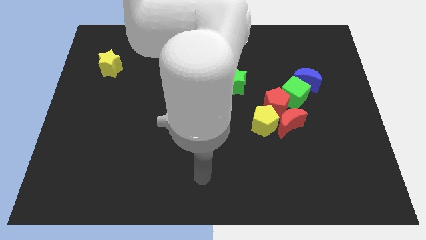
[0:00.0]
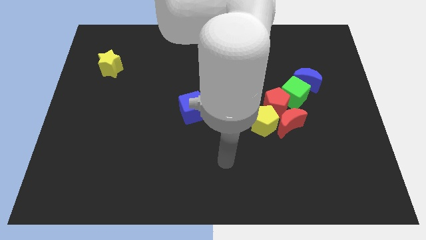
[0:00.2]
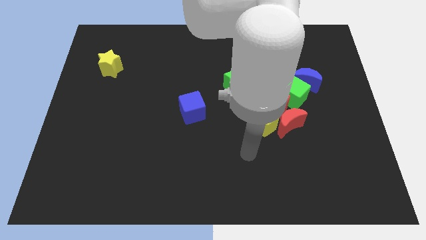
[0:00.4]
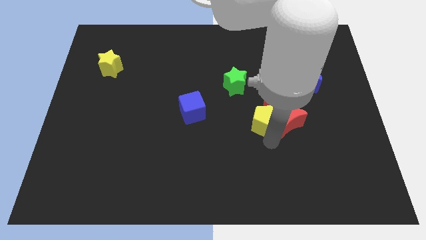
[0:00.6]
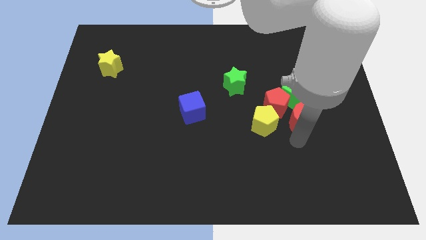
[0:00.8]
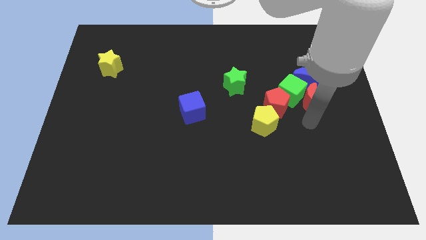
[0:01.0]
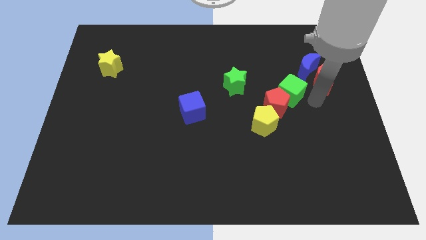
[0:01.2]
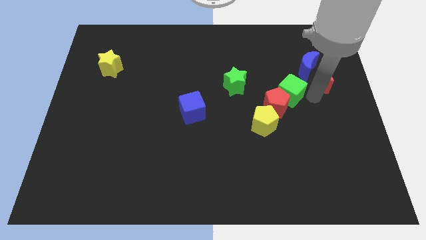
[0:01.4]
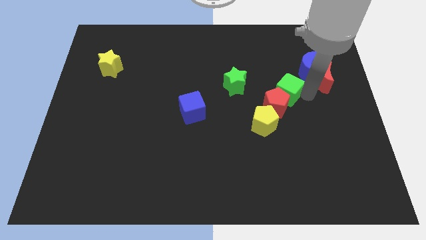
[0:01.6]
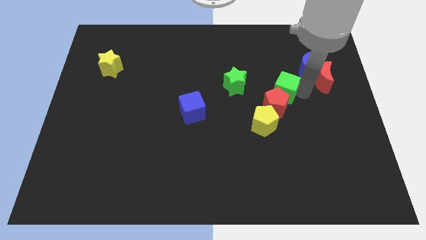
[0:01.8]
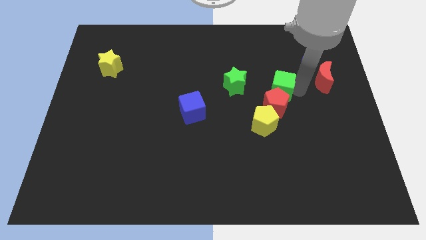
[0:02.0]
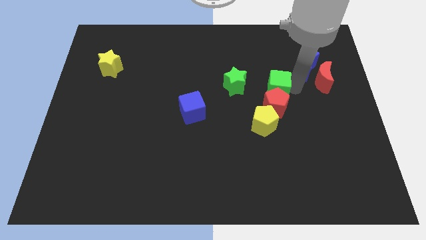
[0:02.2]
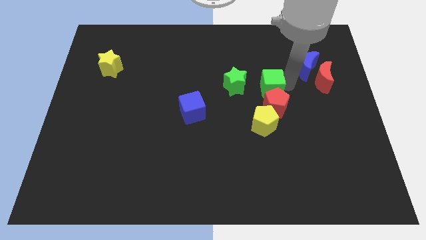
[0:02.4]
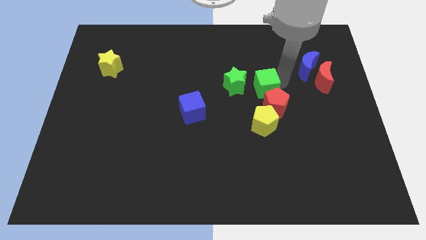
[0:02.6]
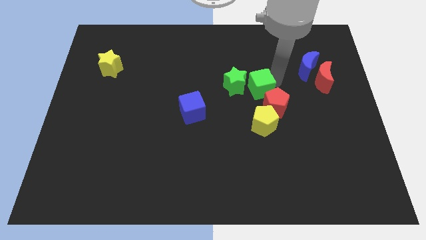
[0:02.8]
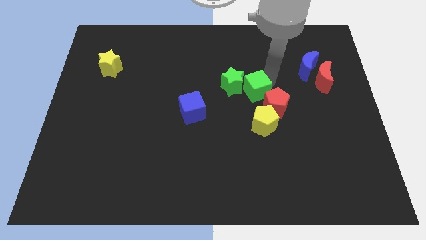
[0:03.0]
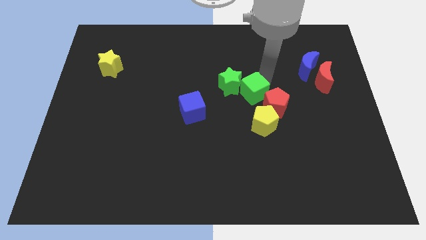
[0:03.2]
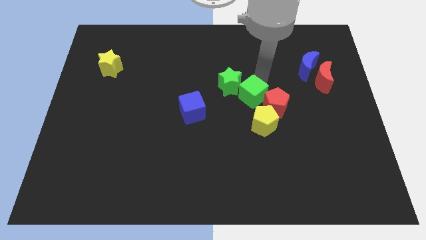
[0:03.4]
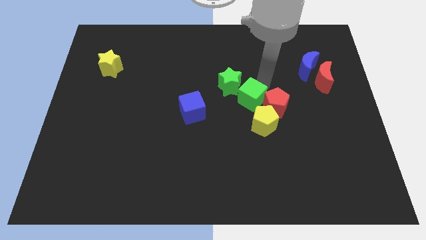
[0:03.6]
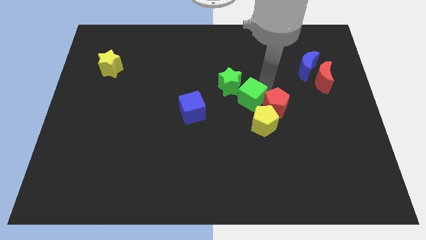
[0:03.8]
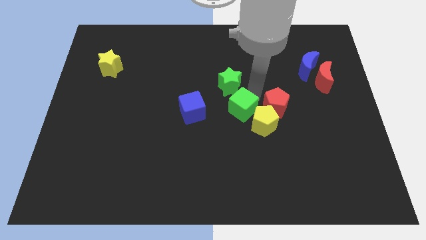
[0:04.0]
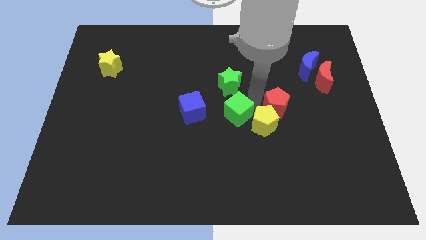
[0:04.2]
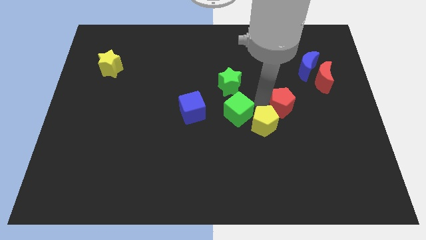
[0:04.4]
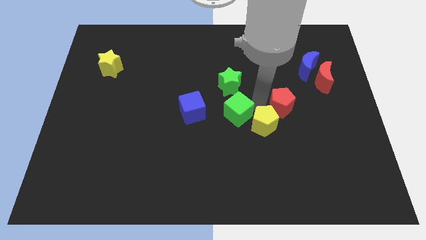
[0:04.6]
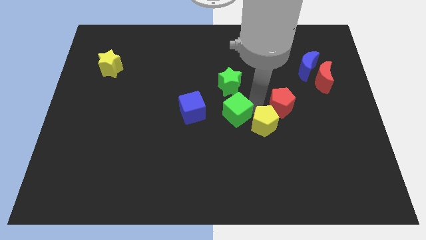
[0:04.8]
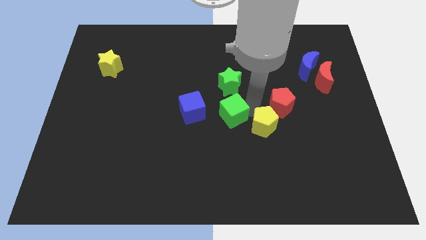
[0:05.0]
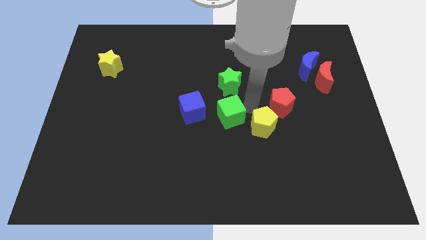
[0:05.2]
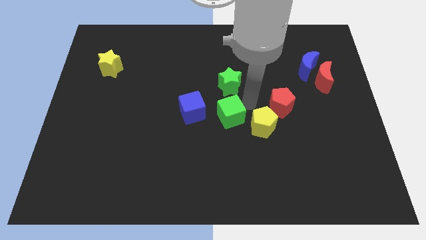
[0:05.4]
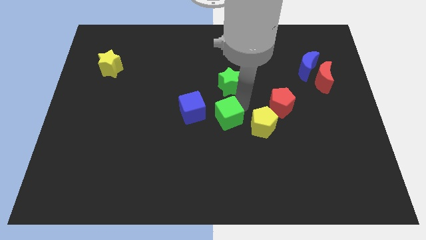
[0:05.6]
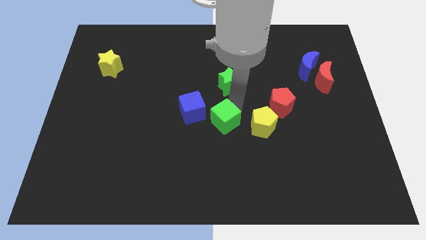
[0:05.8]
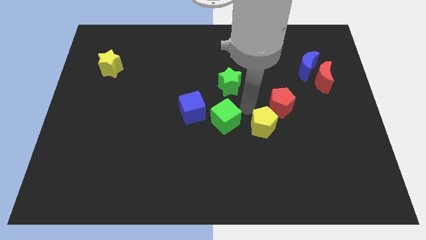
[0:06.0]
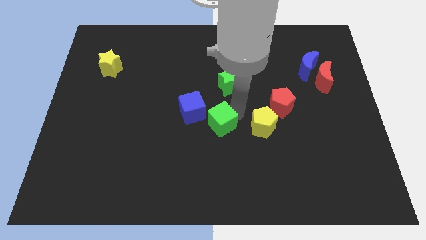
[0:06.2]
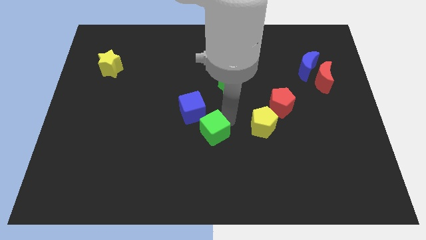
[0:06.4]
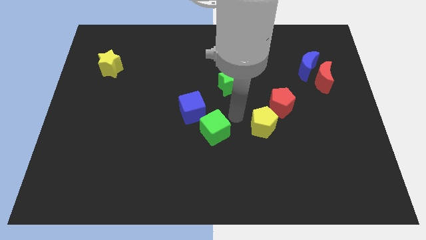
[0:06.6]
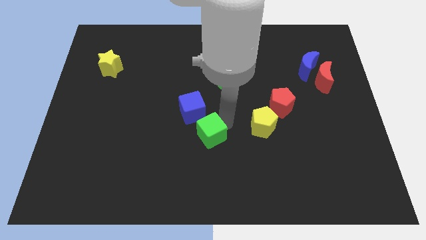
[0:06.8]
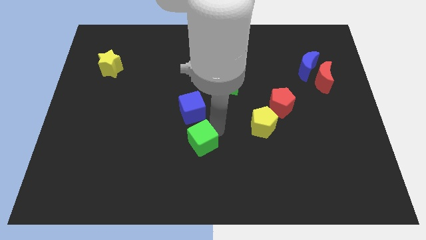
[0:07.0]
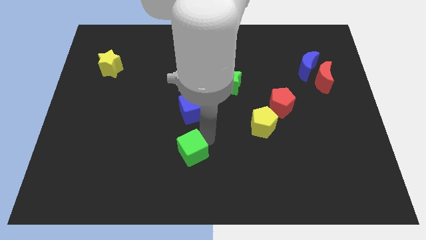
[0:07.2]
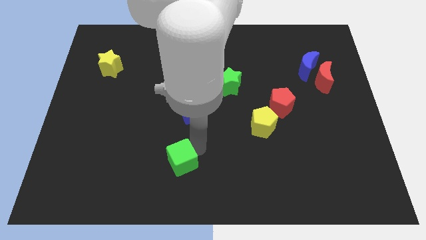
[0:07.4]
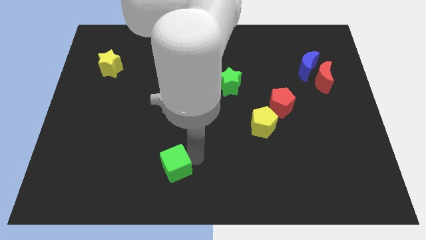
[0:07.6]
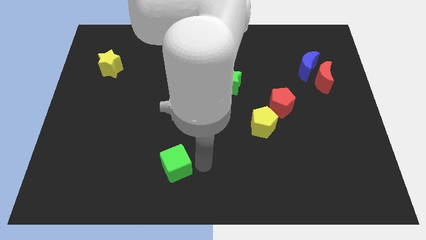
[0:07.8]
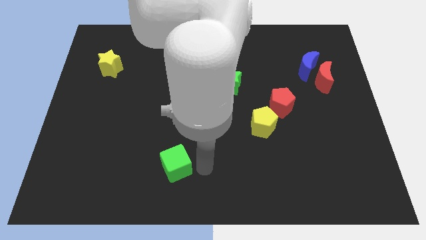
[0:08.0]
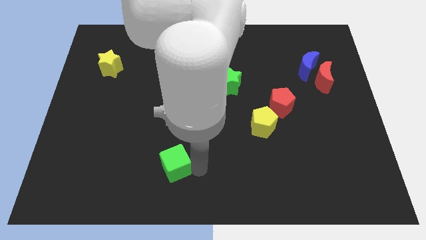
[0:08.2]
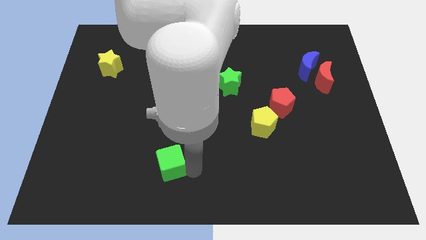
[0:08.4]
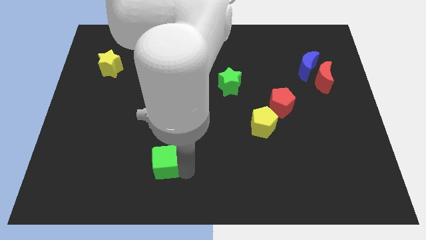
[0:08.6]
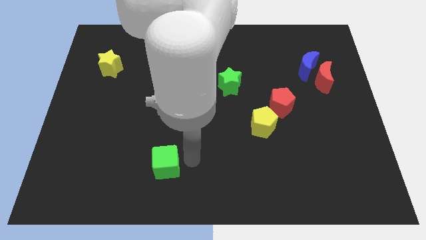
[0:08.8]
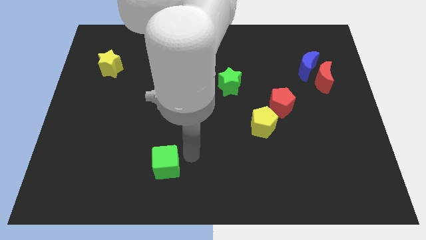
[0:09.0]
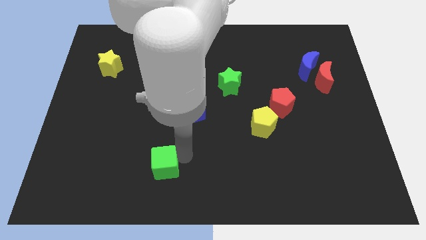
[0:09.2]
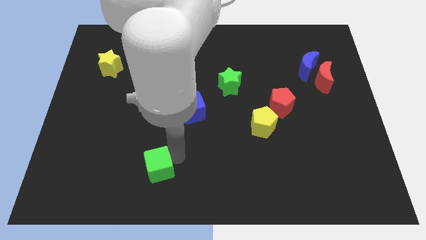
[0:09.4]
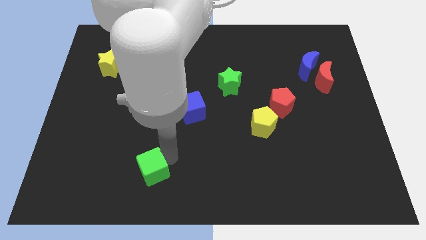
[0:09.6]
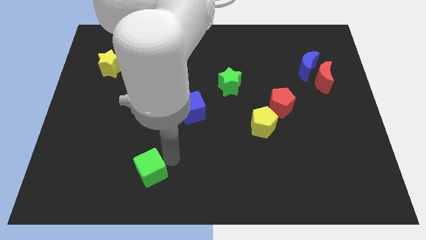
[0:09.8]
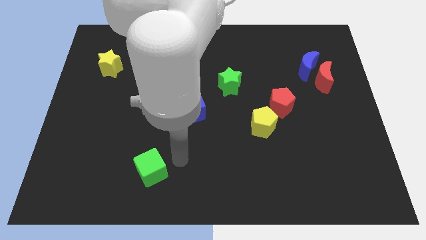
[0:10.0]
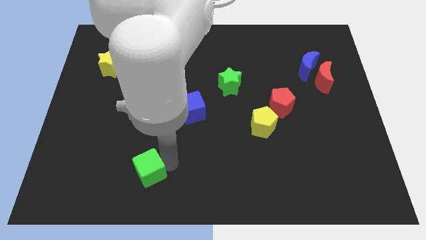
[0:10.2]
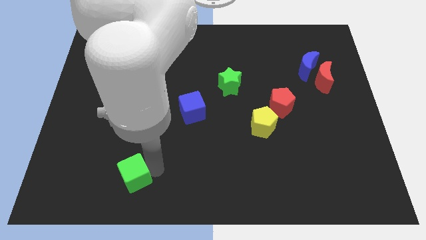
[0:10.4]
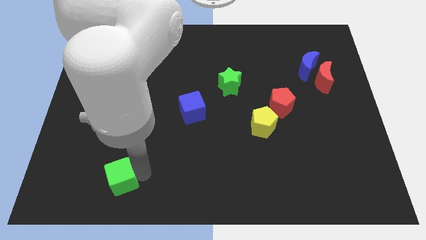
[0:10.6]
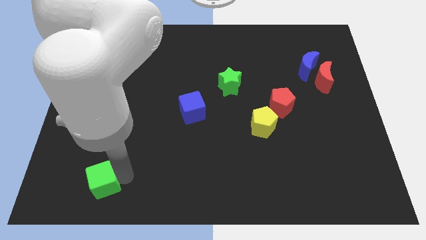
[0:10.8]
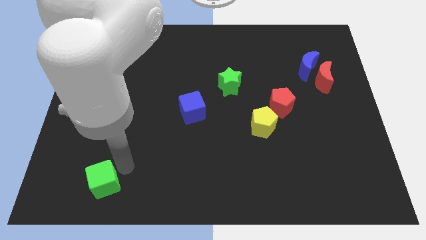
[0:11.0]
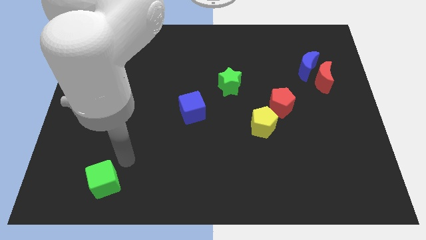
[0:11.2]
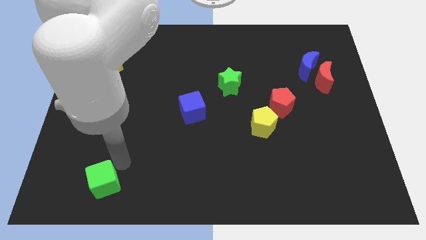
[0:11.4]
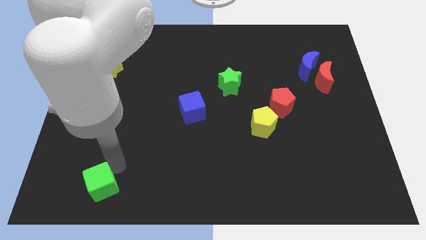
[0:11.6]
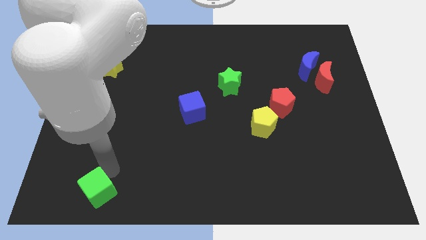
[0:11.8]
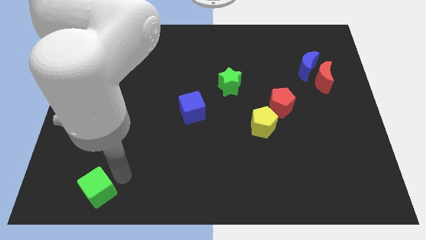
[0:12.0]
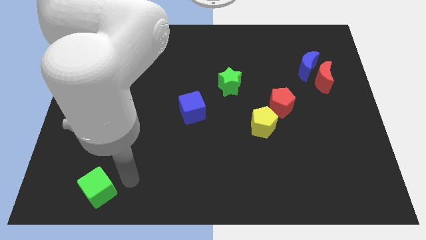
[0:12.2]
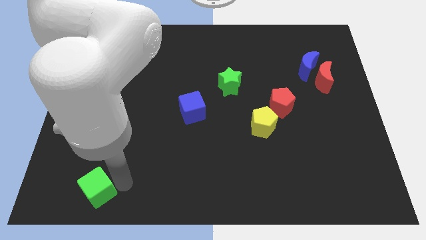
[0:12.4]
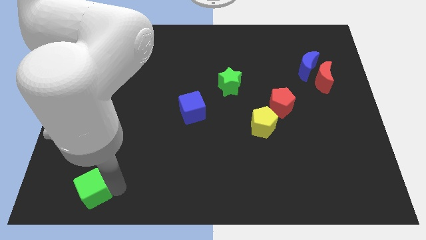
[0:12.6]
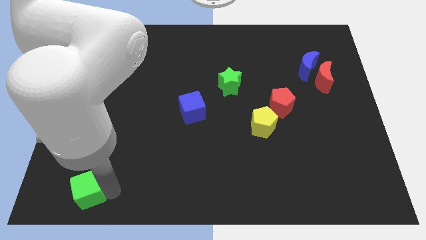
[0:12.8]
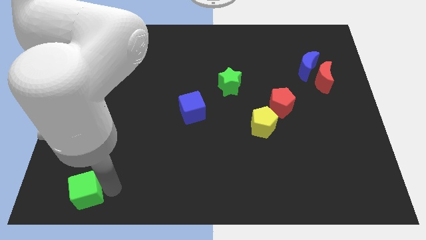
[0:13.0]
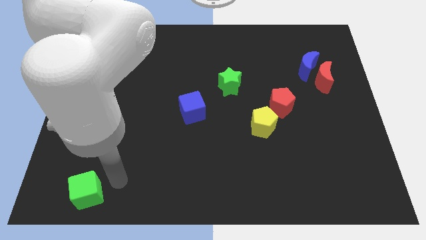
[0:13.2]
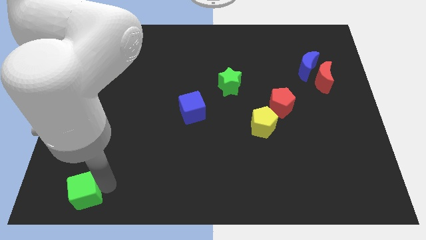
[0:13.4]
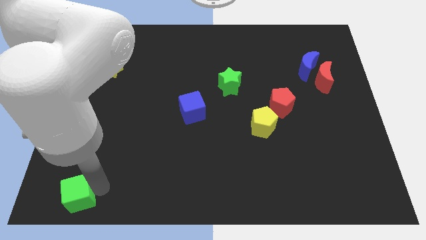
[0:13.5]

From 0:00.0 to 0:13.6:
move the green cube to the bottom left

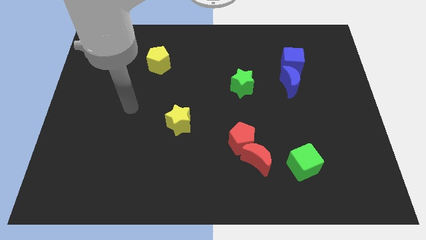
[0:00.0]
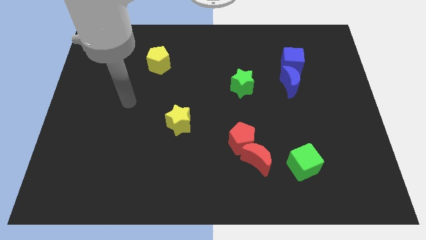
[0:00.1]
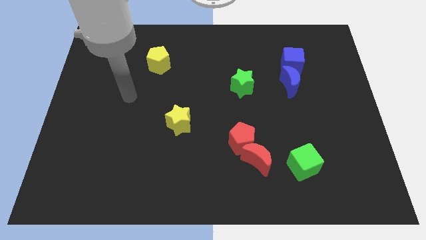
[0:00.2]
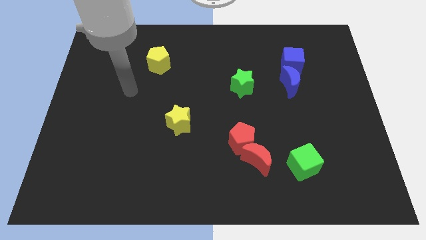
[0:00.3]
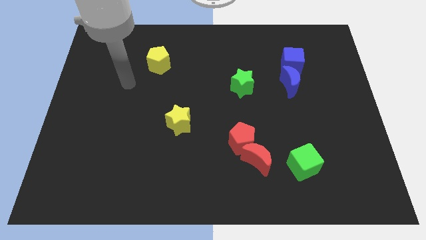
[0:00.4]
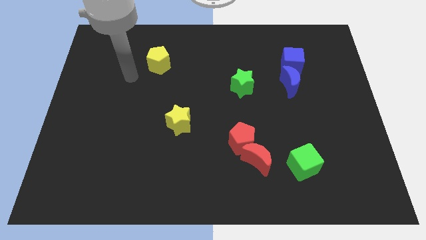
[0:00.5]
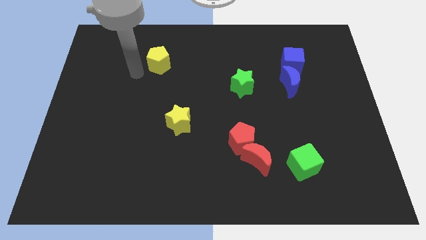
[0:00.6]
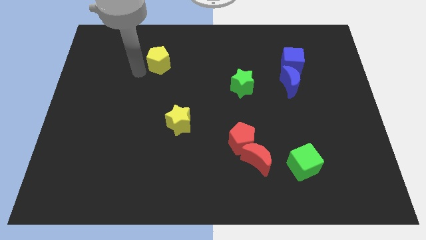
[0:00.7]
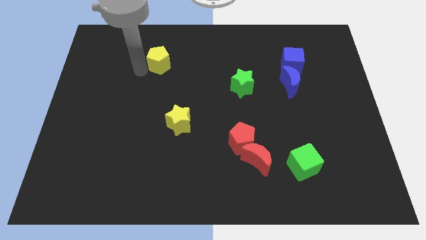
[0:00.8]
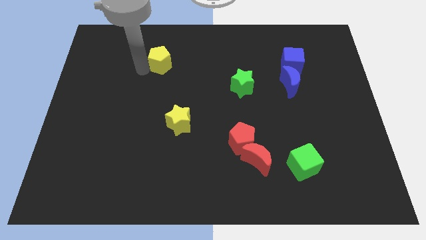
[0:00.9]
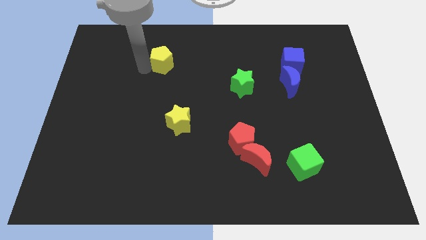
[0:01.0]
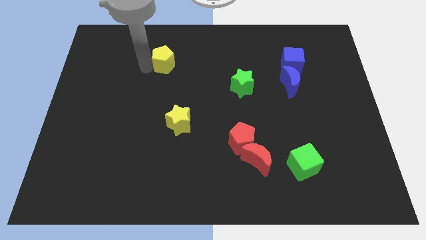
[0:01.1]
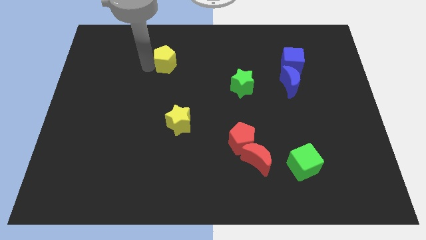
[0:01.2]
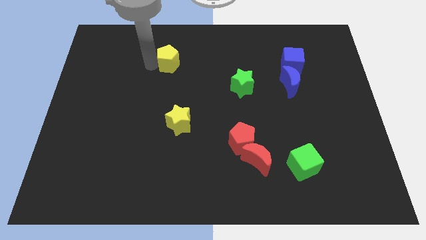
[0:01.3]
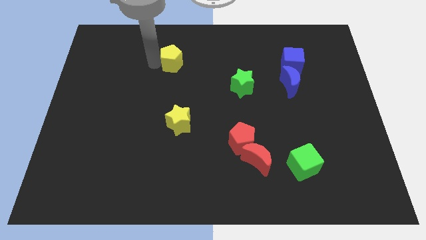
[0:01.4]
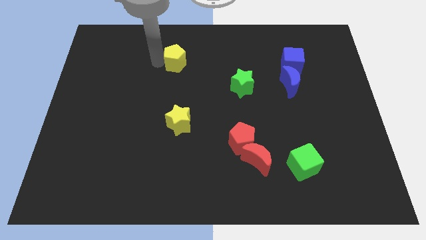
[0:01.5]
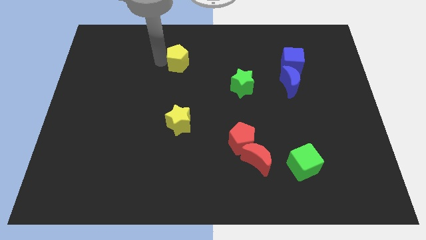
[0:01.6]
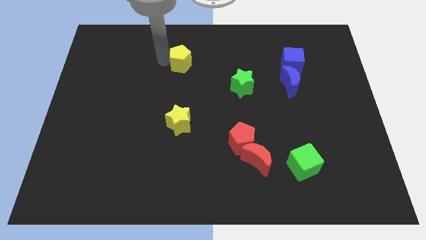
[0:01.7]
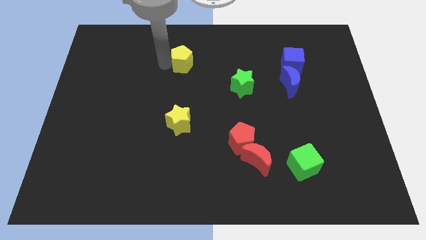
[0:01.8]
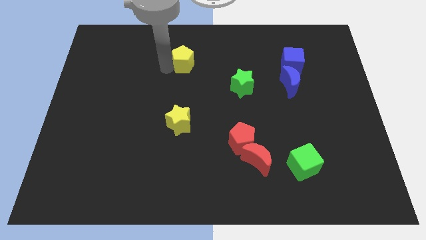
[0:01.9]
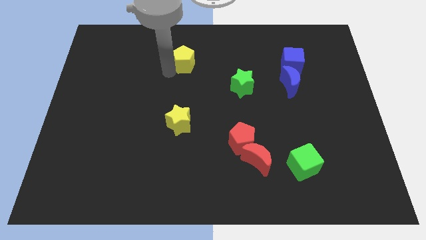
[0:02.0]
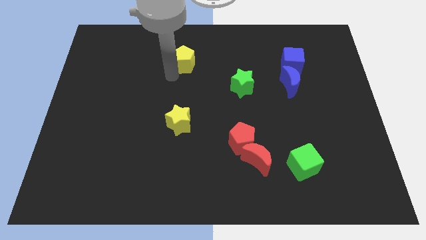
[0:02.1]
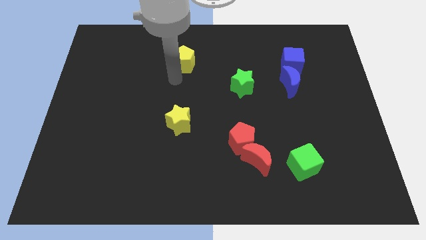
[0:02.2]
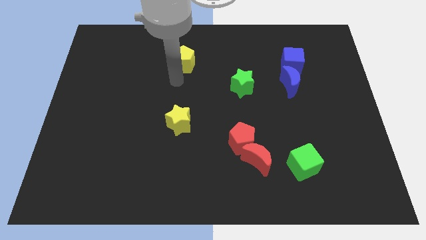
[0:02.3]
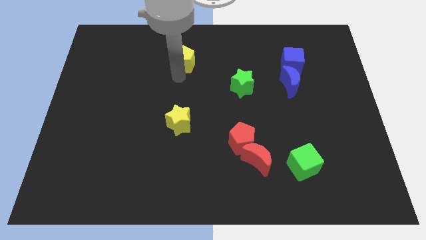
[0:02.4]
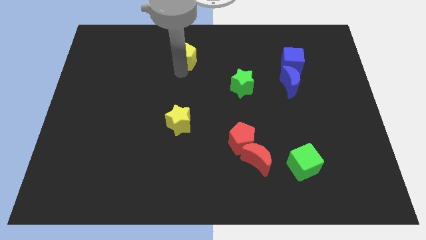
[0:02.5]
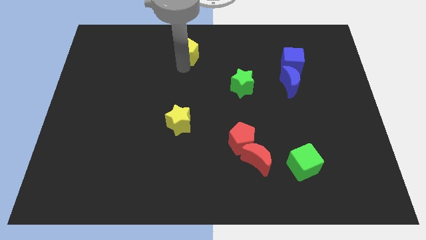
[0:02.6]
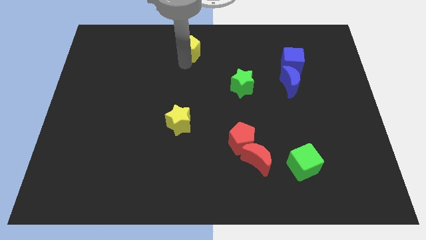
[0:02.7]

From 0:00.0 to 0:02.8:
slide the yellow pentagon to the top side
